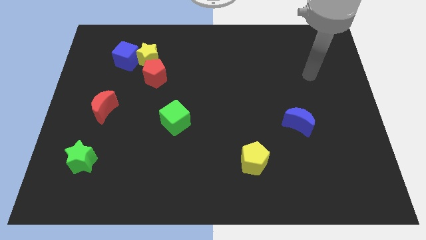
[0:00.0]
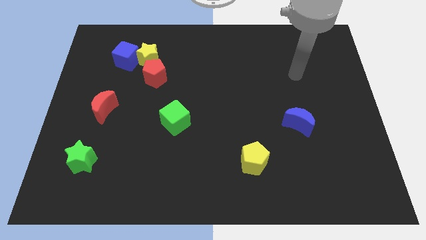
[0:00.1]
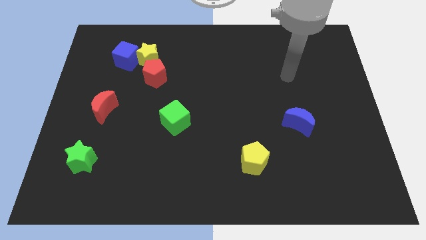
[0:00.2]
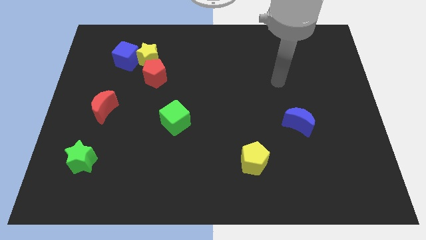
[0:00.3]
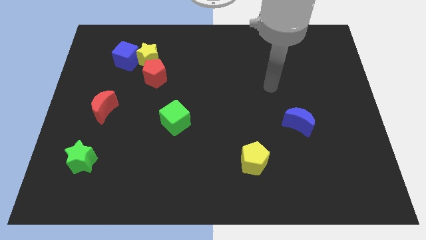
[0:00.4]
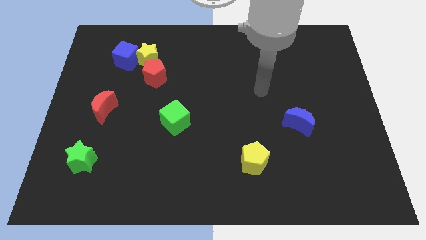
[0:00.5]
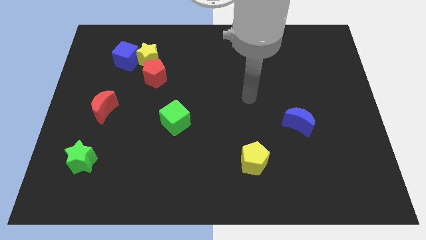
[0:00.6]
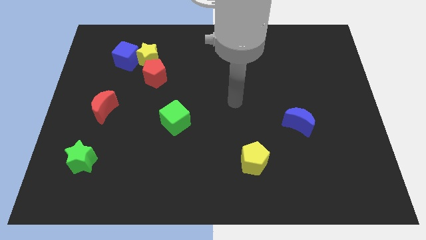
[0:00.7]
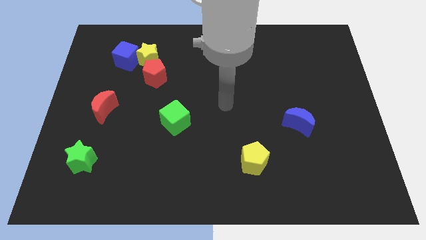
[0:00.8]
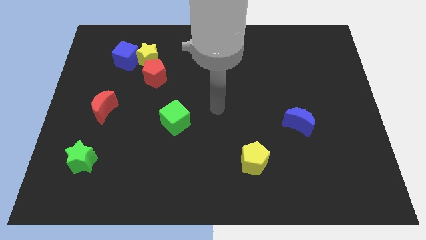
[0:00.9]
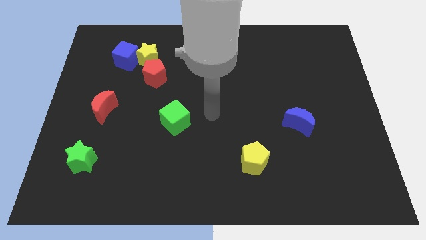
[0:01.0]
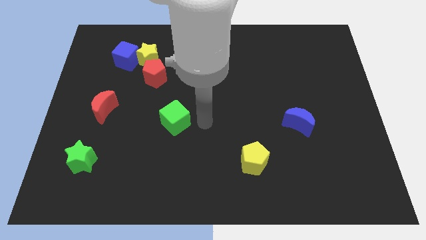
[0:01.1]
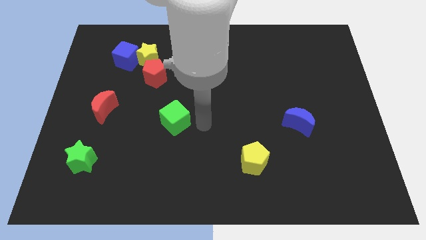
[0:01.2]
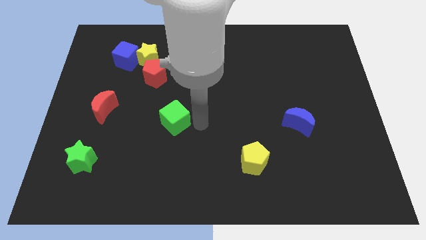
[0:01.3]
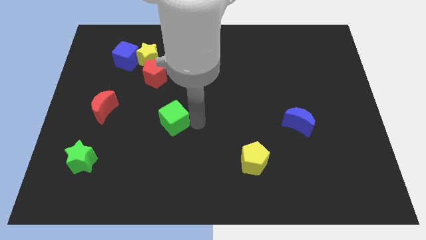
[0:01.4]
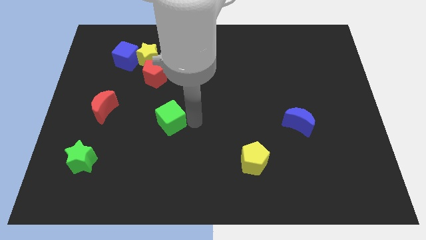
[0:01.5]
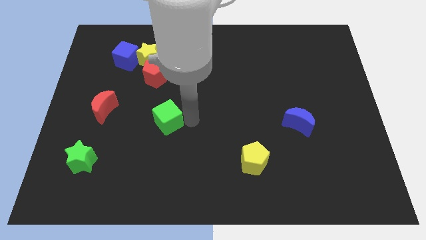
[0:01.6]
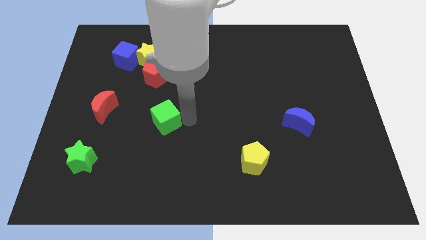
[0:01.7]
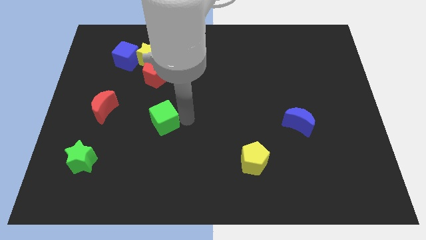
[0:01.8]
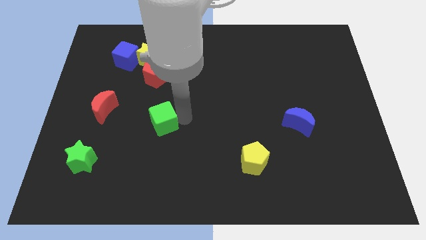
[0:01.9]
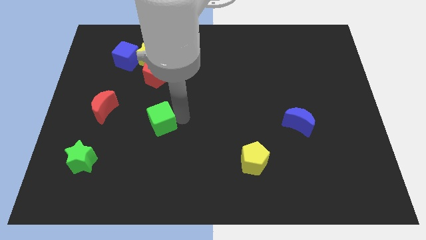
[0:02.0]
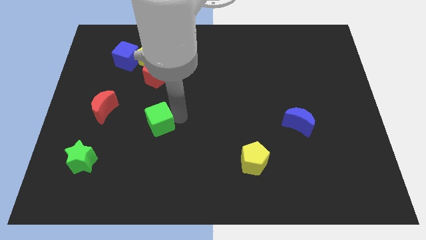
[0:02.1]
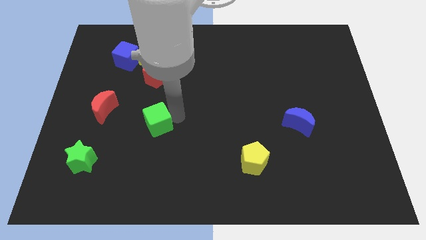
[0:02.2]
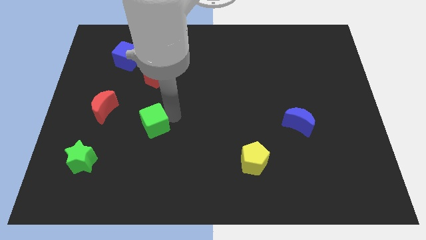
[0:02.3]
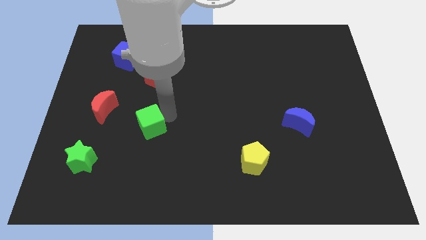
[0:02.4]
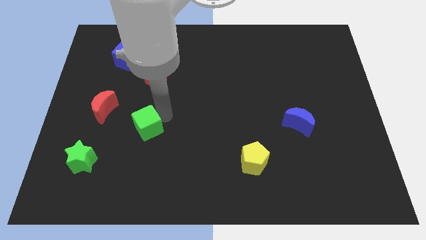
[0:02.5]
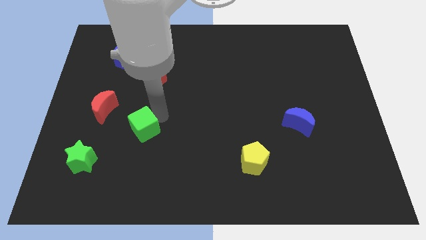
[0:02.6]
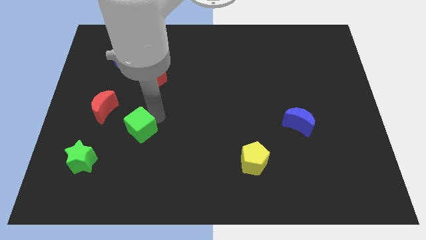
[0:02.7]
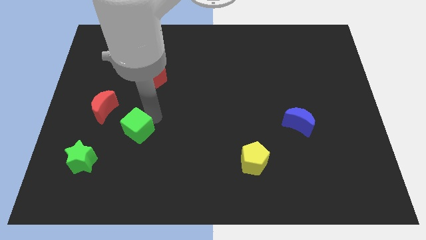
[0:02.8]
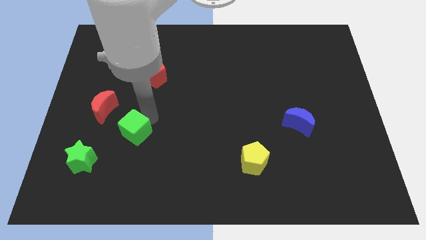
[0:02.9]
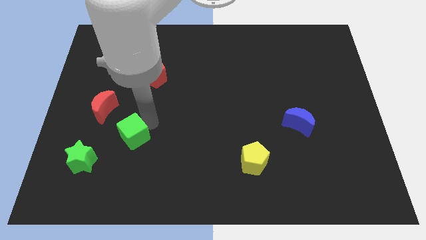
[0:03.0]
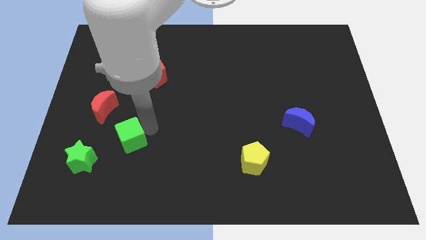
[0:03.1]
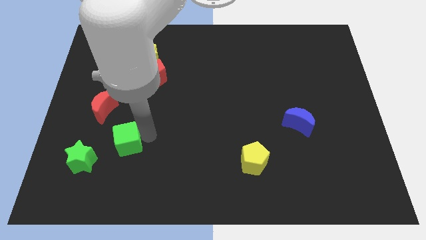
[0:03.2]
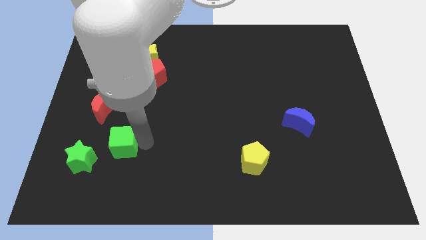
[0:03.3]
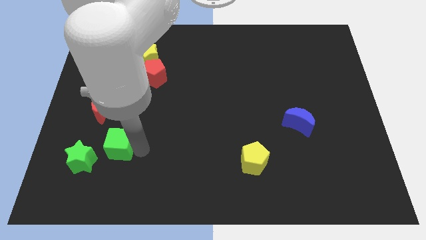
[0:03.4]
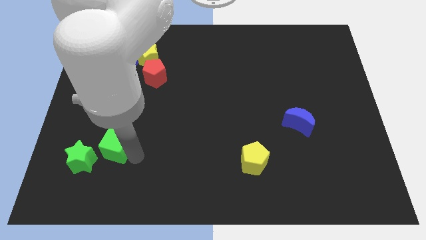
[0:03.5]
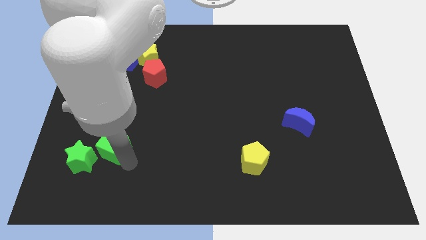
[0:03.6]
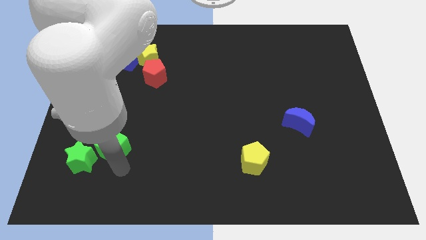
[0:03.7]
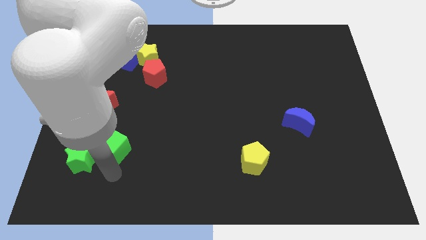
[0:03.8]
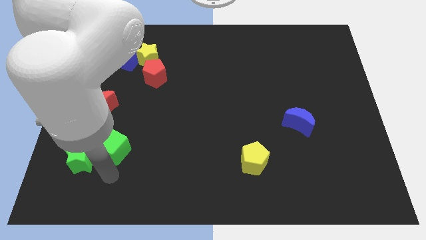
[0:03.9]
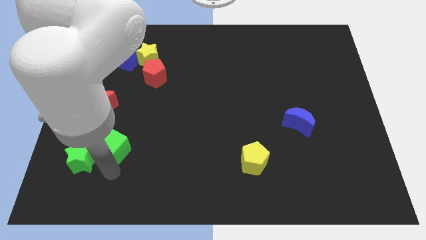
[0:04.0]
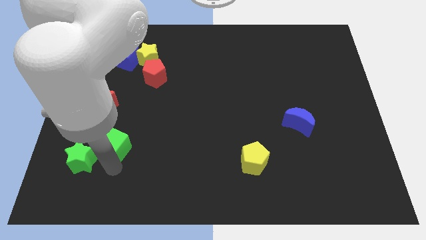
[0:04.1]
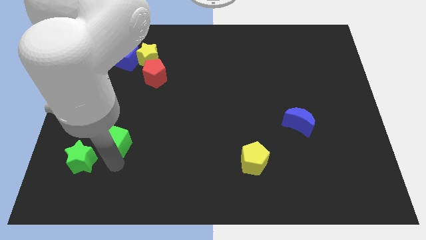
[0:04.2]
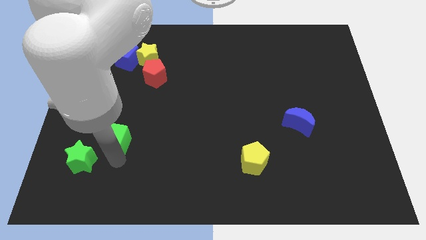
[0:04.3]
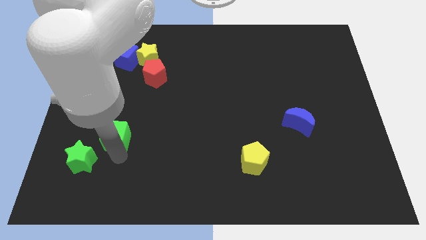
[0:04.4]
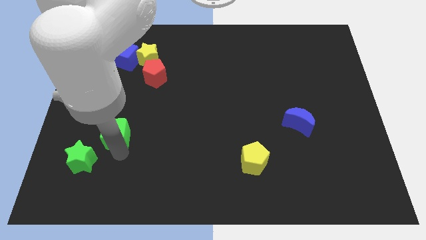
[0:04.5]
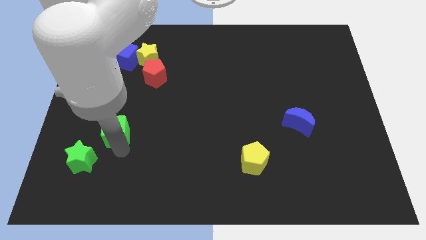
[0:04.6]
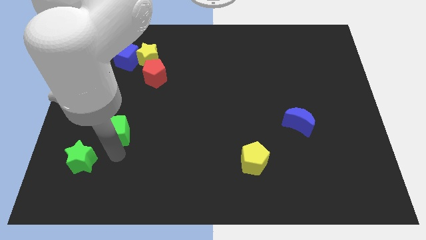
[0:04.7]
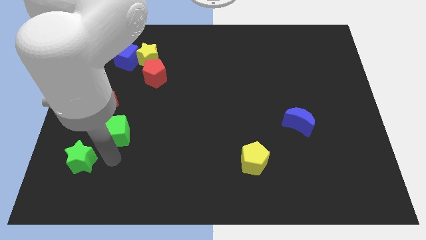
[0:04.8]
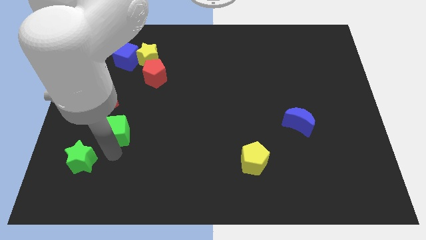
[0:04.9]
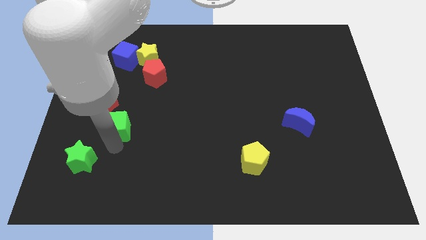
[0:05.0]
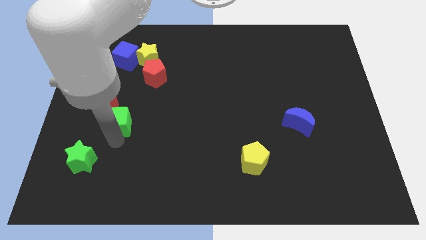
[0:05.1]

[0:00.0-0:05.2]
move the green cube next to the red moon

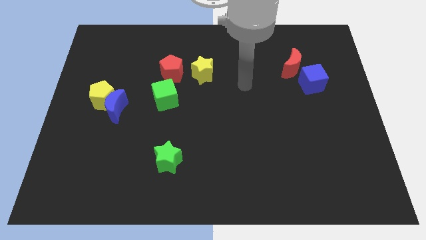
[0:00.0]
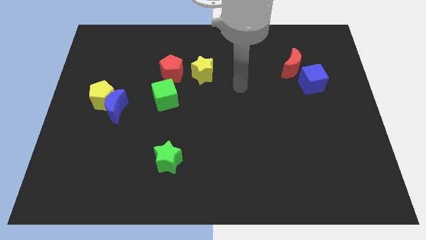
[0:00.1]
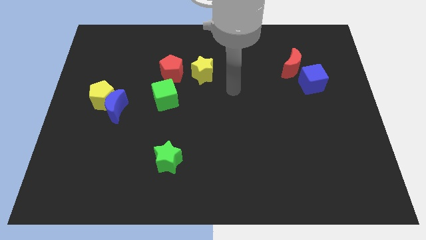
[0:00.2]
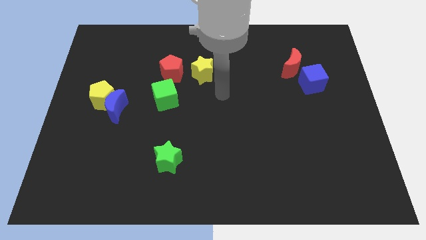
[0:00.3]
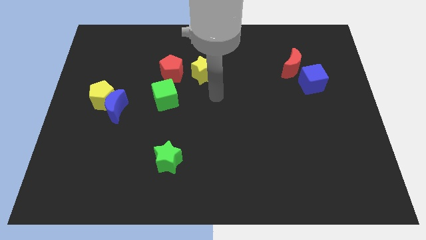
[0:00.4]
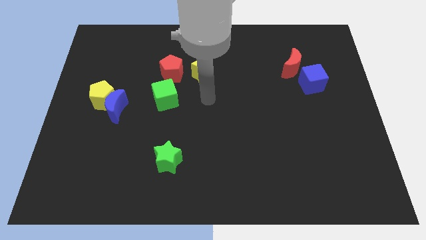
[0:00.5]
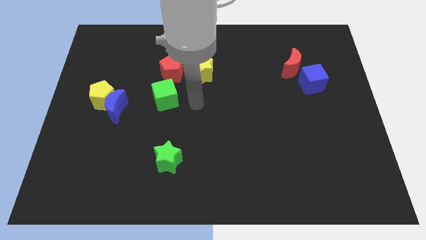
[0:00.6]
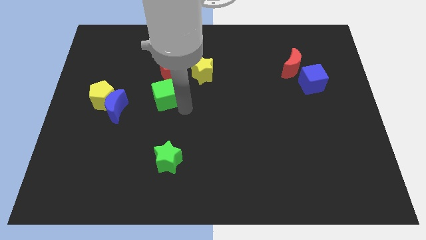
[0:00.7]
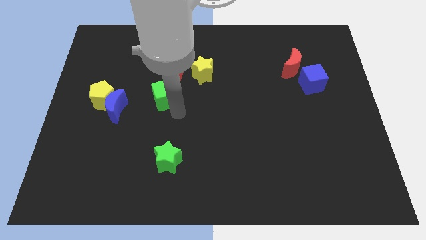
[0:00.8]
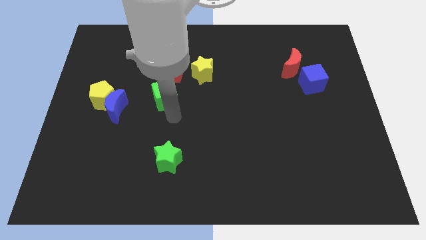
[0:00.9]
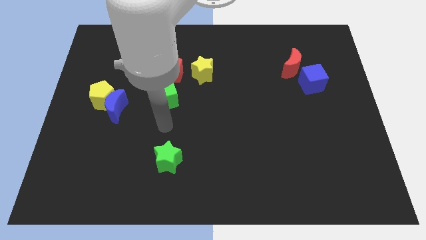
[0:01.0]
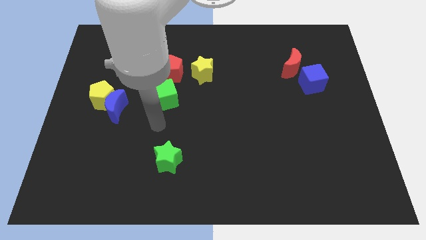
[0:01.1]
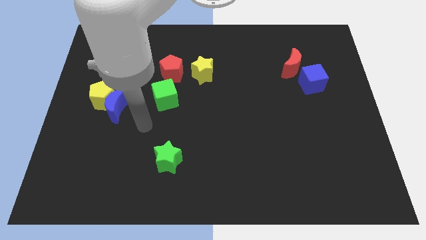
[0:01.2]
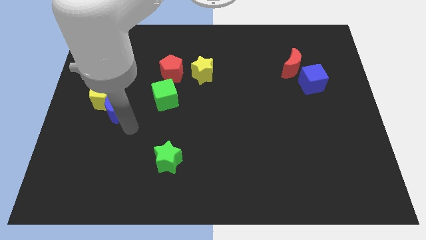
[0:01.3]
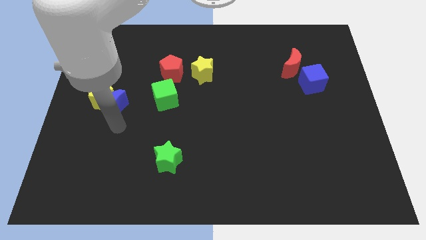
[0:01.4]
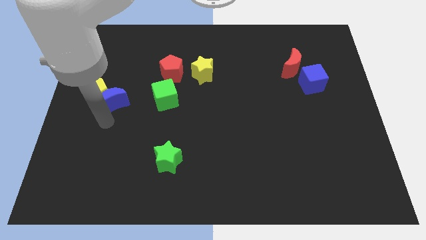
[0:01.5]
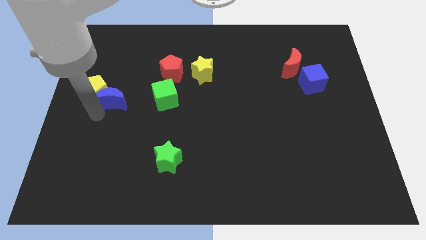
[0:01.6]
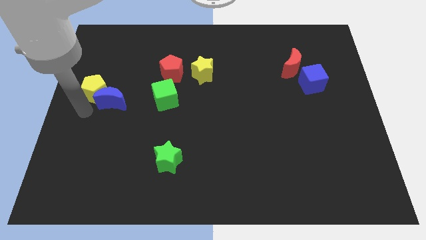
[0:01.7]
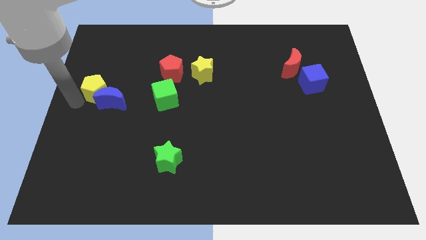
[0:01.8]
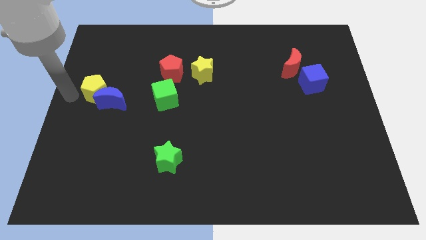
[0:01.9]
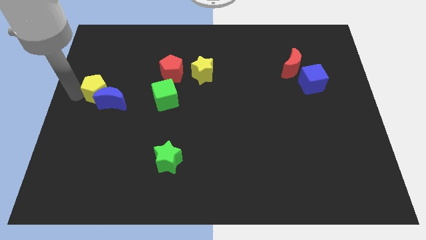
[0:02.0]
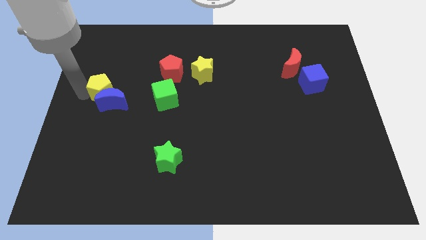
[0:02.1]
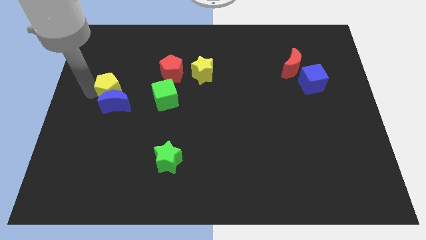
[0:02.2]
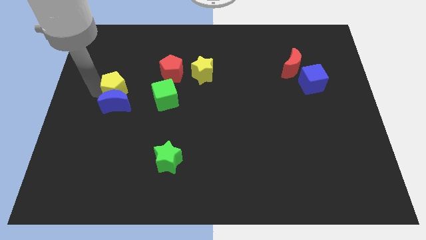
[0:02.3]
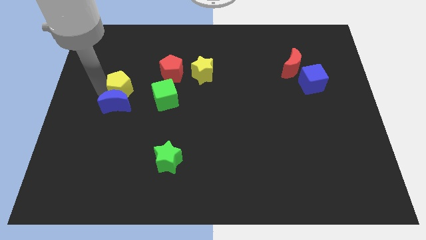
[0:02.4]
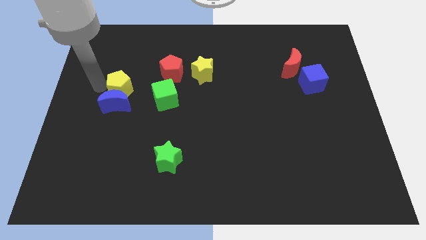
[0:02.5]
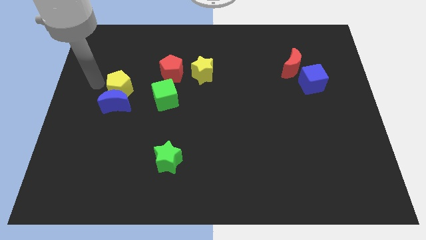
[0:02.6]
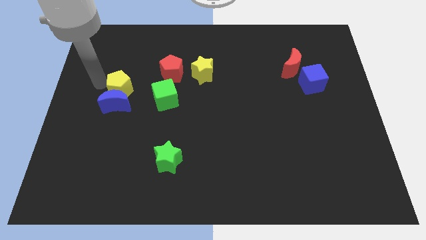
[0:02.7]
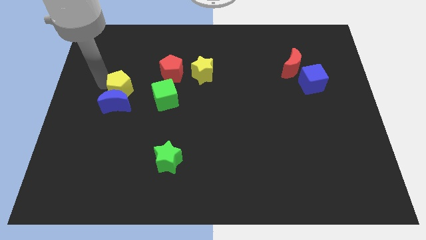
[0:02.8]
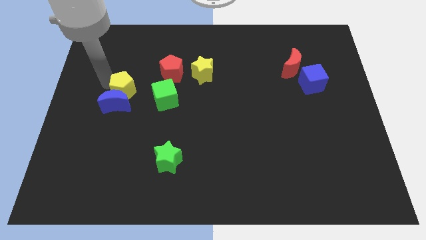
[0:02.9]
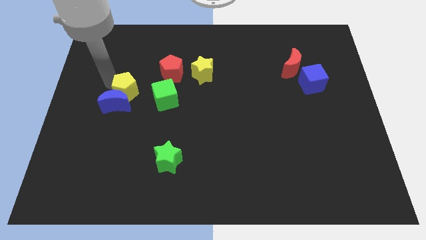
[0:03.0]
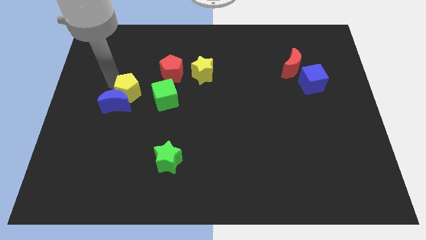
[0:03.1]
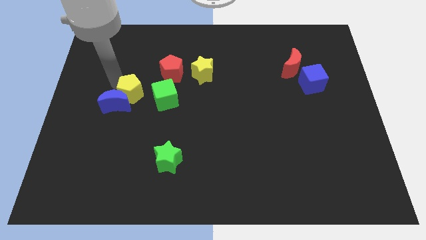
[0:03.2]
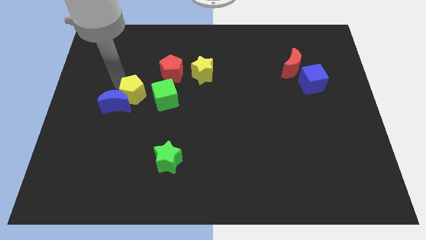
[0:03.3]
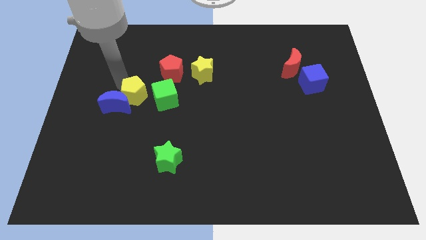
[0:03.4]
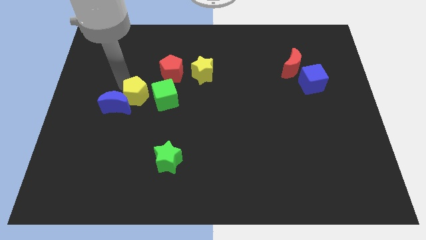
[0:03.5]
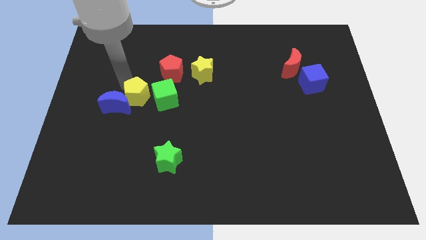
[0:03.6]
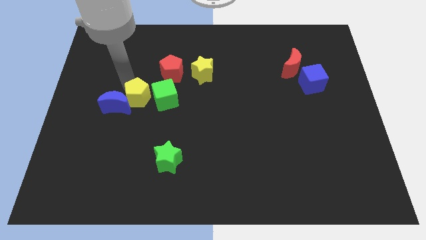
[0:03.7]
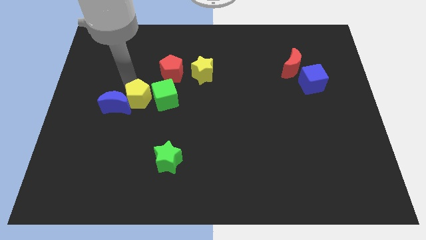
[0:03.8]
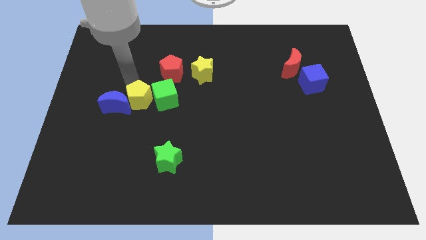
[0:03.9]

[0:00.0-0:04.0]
slide the yellow pentagon to the green cube
